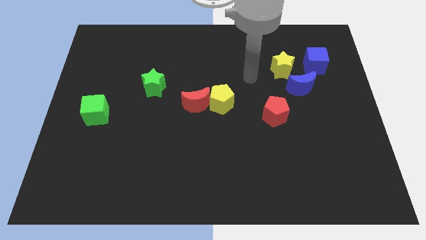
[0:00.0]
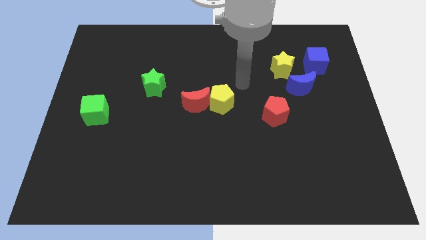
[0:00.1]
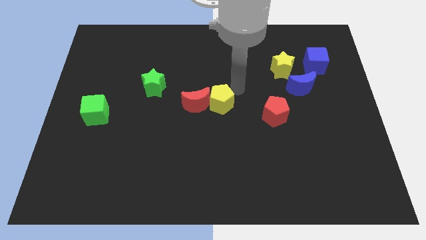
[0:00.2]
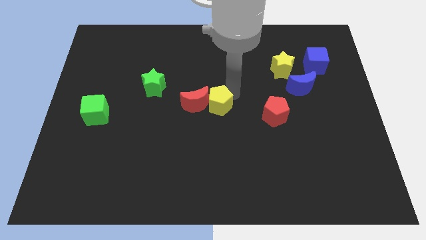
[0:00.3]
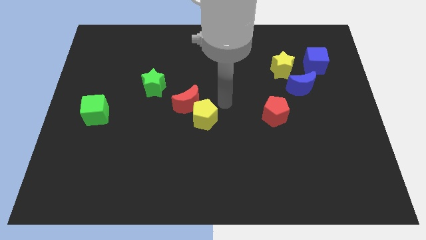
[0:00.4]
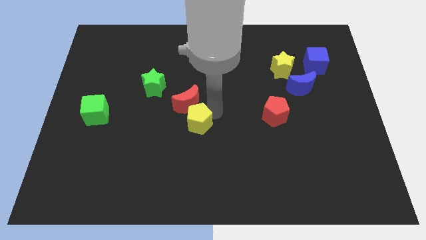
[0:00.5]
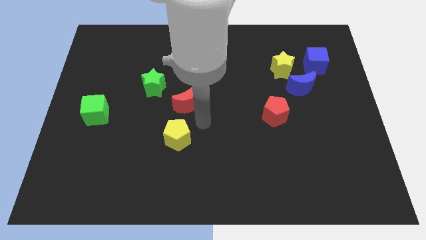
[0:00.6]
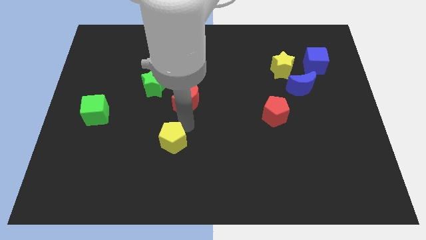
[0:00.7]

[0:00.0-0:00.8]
separate the red moon from the yellow pentagon

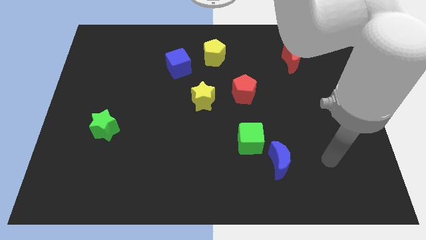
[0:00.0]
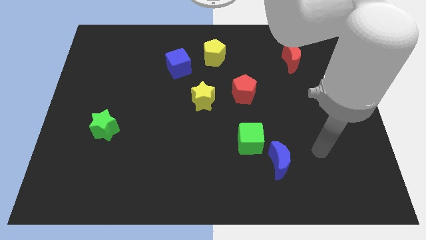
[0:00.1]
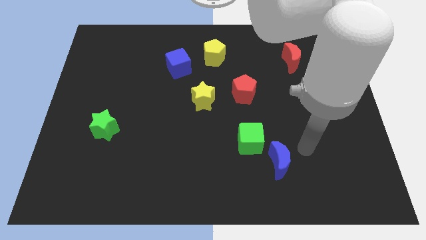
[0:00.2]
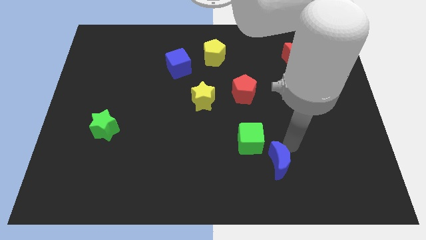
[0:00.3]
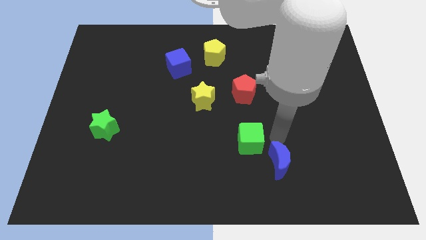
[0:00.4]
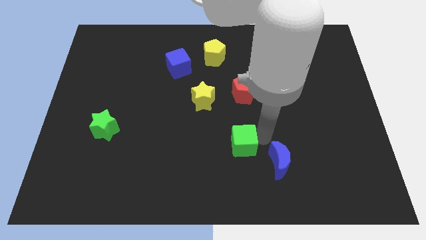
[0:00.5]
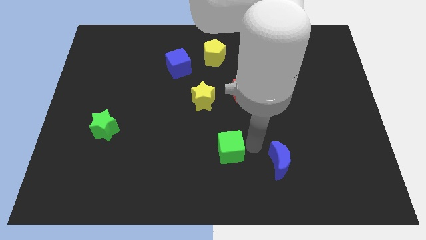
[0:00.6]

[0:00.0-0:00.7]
move the blue moon away from the green cube

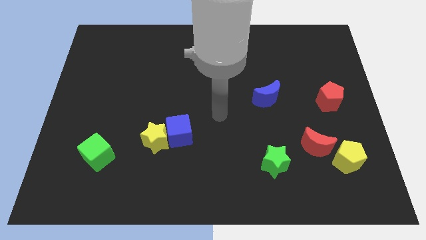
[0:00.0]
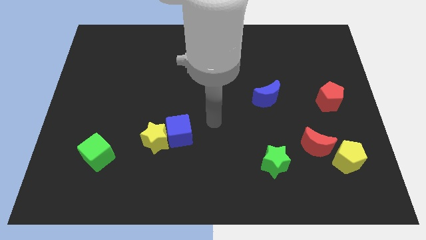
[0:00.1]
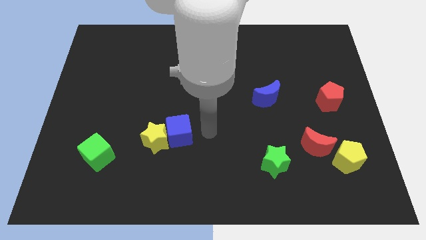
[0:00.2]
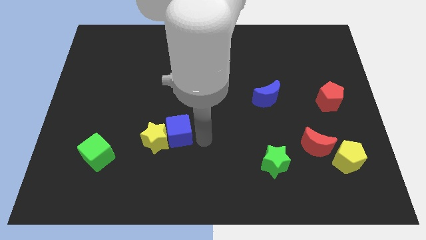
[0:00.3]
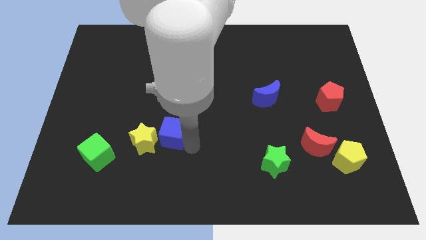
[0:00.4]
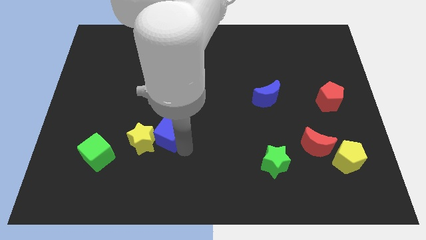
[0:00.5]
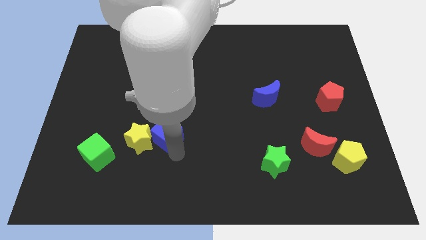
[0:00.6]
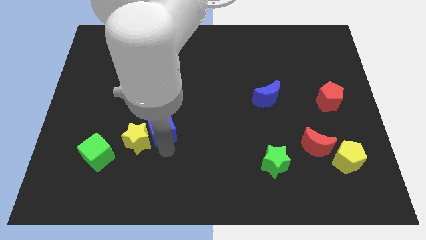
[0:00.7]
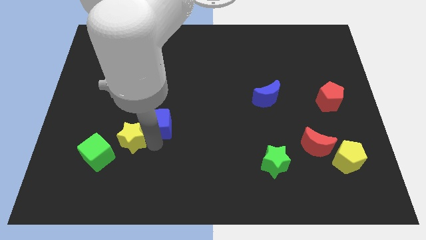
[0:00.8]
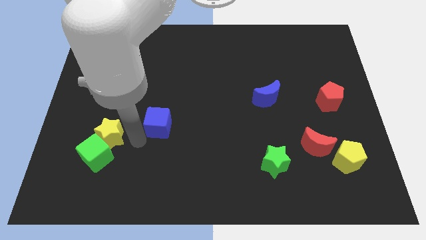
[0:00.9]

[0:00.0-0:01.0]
pull the blue cube apart from the yellow star

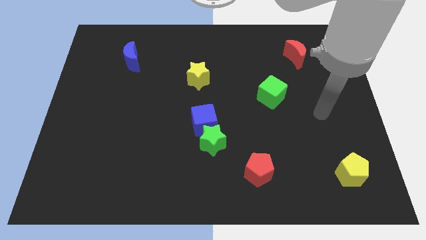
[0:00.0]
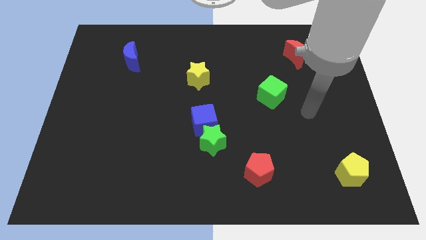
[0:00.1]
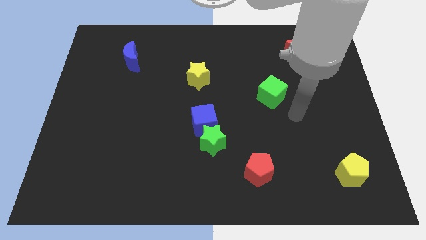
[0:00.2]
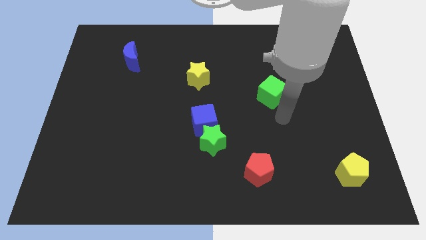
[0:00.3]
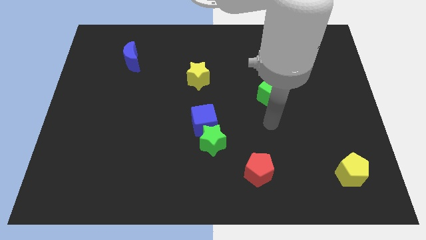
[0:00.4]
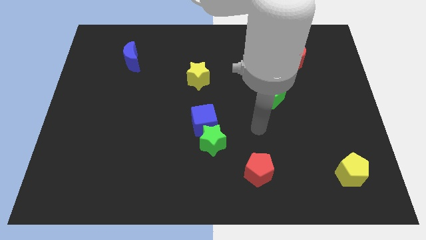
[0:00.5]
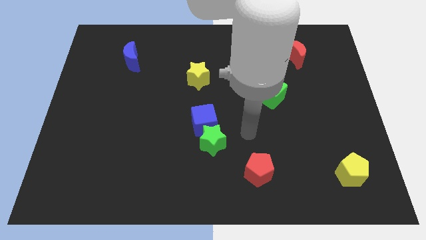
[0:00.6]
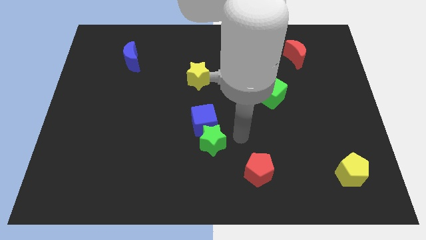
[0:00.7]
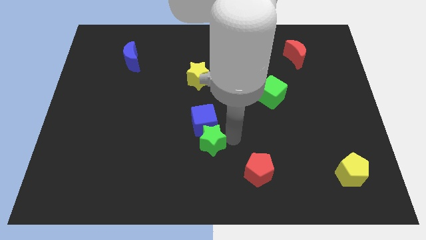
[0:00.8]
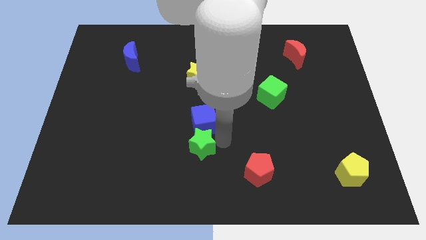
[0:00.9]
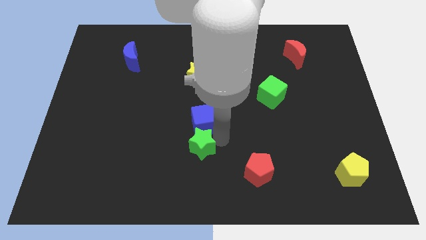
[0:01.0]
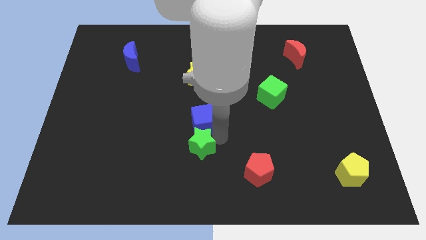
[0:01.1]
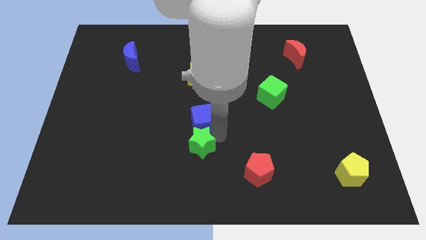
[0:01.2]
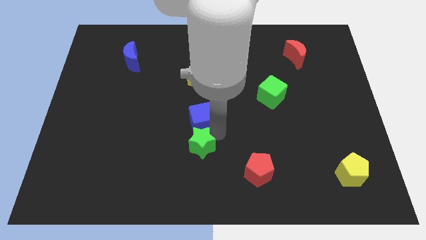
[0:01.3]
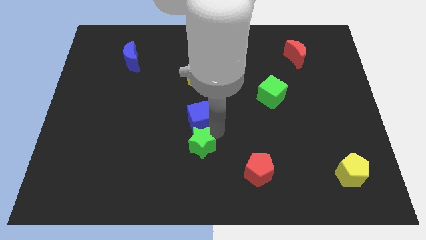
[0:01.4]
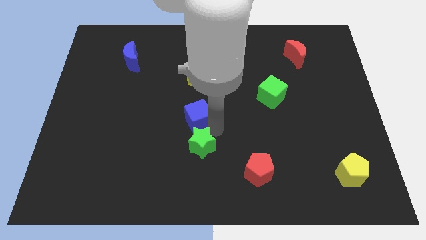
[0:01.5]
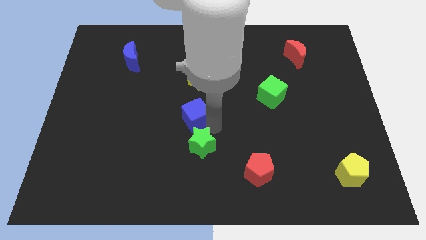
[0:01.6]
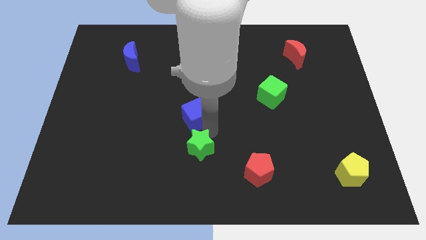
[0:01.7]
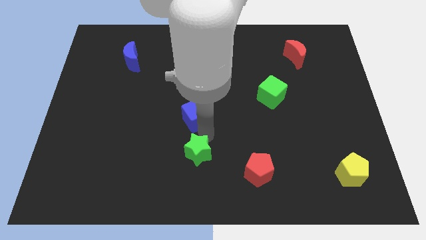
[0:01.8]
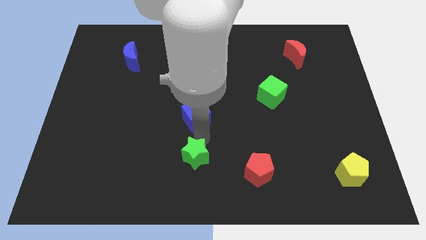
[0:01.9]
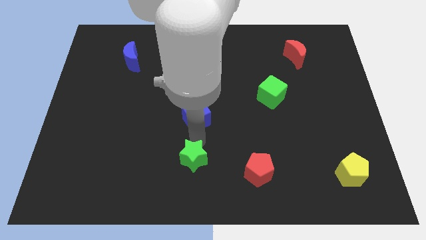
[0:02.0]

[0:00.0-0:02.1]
move the blue cube away from the green star

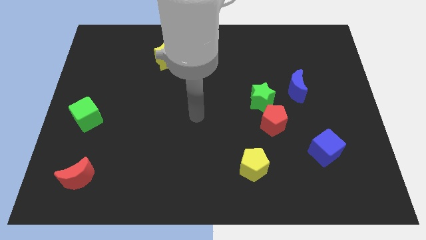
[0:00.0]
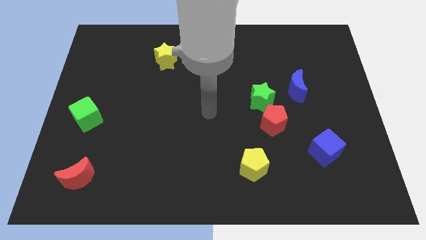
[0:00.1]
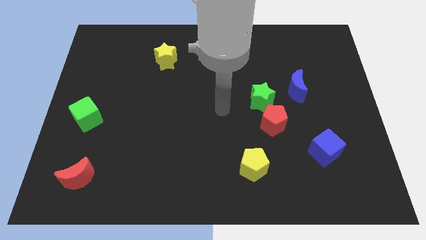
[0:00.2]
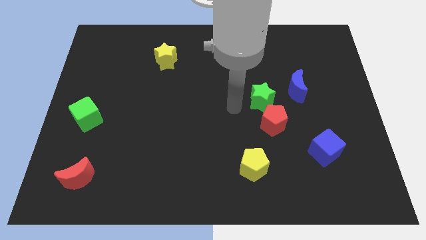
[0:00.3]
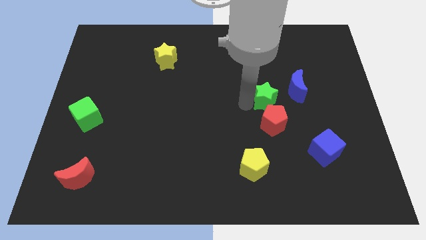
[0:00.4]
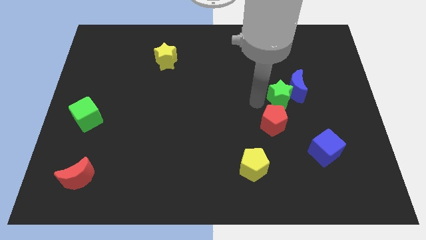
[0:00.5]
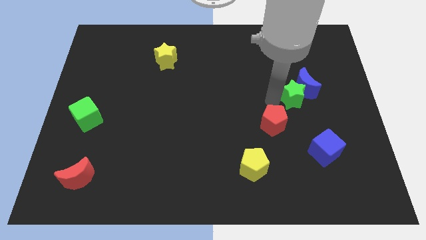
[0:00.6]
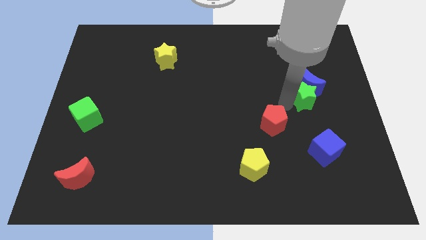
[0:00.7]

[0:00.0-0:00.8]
move the red pentagon away from the green star

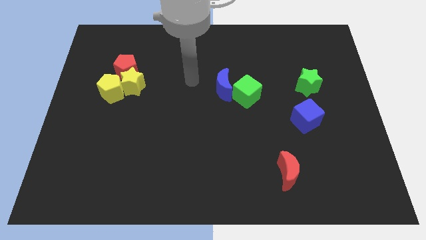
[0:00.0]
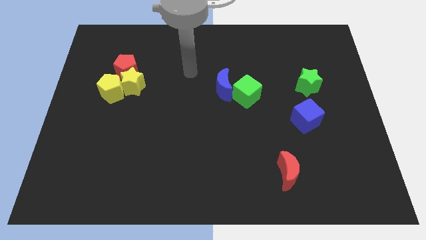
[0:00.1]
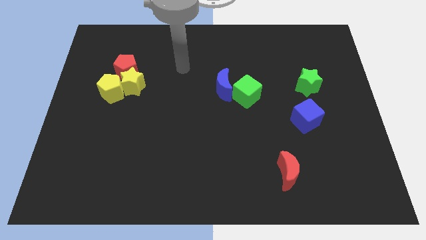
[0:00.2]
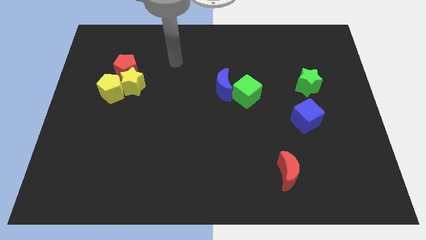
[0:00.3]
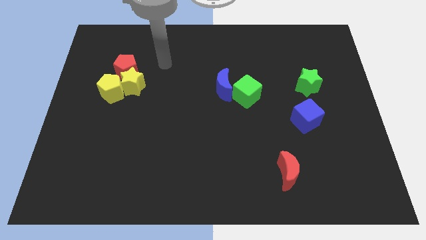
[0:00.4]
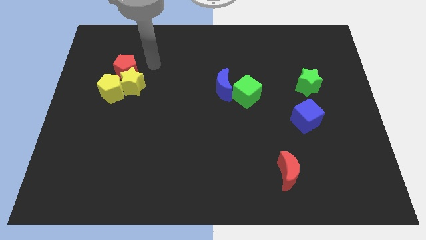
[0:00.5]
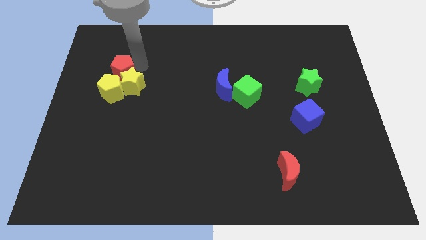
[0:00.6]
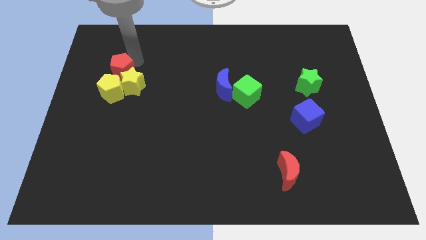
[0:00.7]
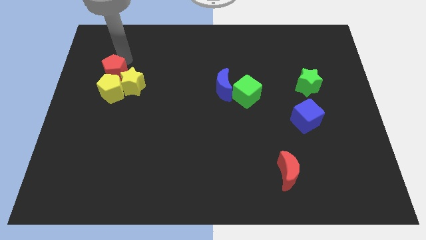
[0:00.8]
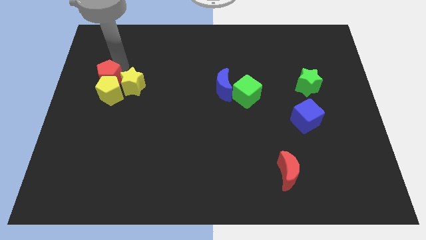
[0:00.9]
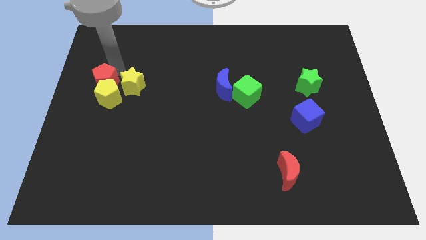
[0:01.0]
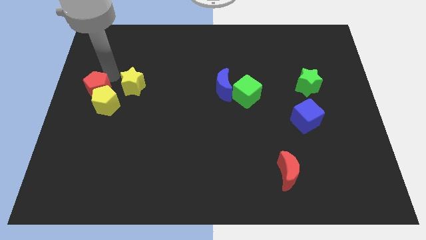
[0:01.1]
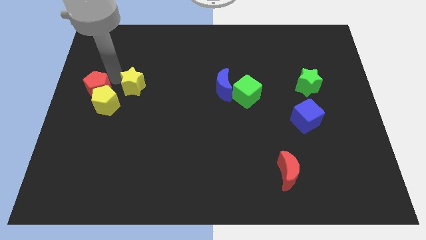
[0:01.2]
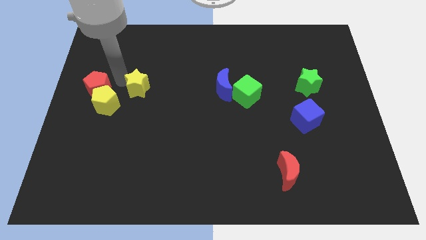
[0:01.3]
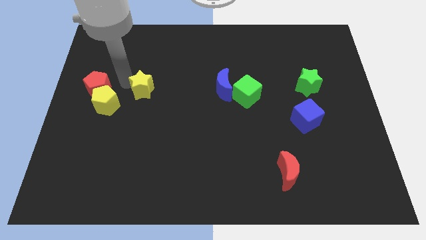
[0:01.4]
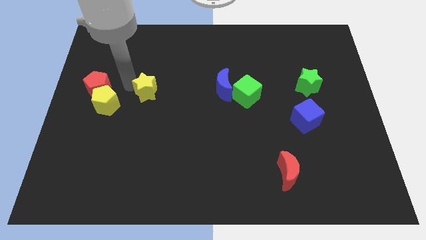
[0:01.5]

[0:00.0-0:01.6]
pull the yellow star apart from the red pentagon and yellow pentagon

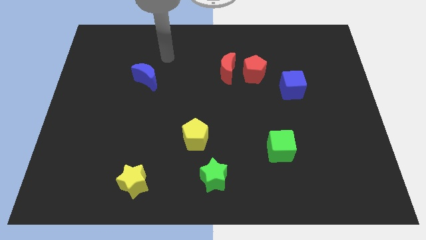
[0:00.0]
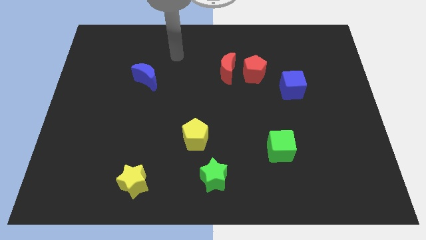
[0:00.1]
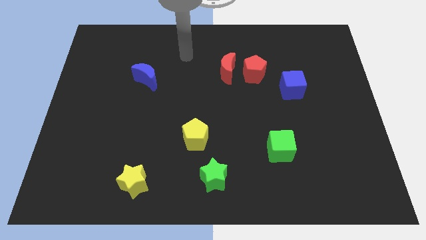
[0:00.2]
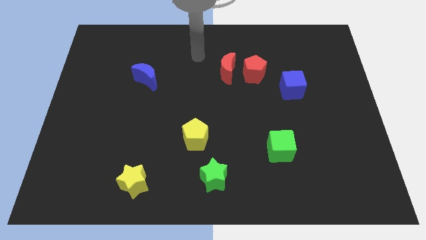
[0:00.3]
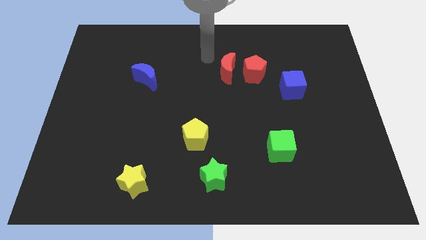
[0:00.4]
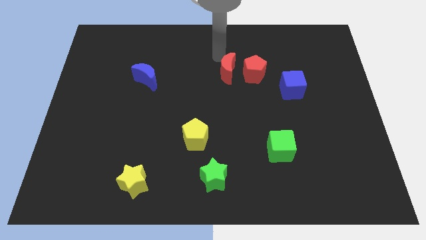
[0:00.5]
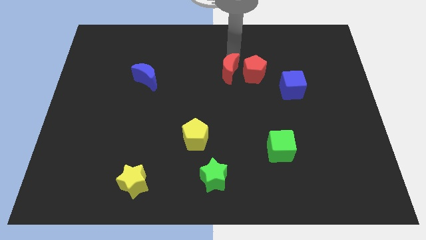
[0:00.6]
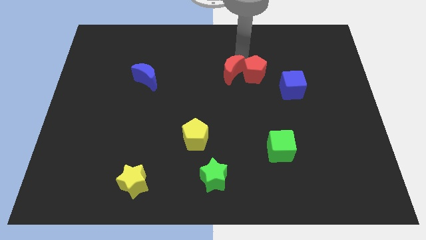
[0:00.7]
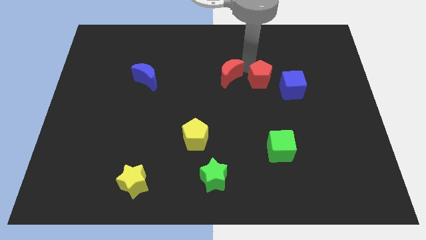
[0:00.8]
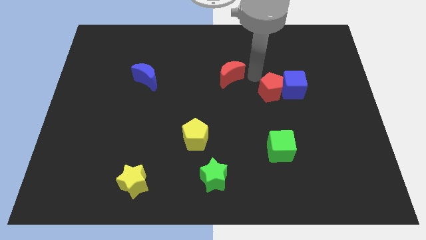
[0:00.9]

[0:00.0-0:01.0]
move the red moon away from the red pentagon

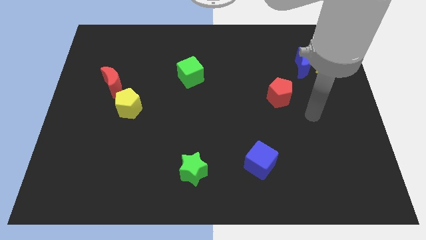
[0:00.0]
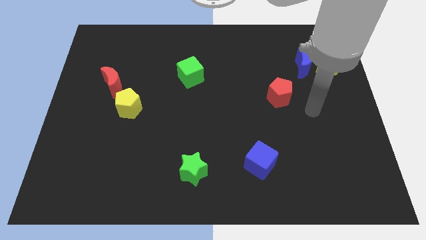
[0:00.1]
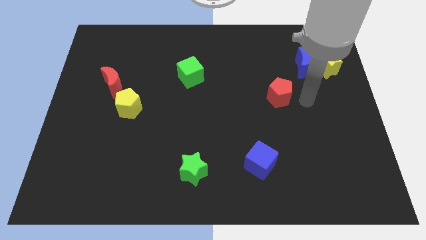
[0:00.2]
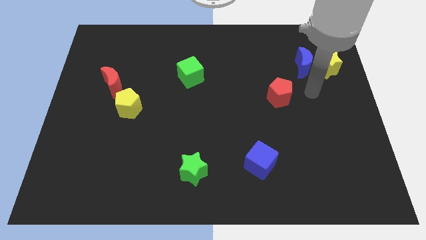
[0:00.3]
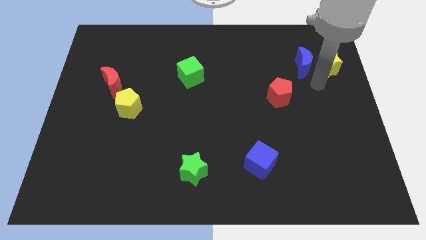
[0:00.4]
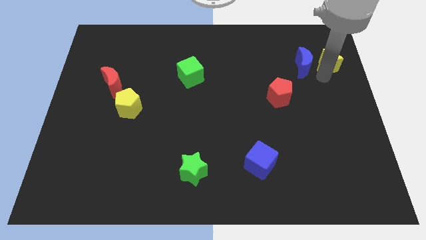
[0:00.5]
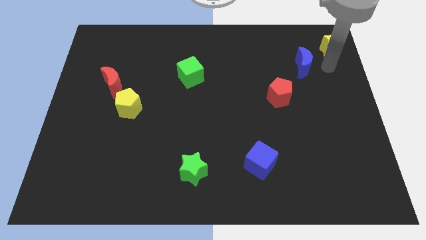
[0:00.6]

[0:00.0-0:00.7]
separate the blue moon from the yellow star

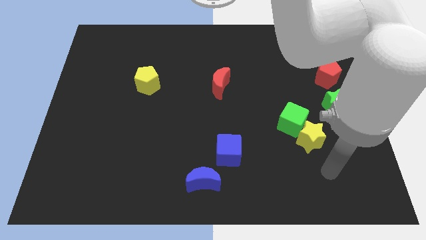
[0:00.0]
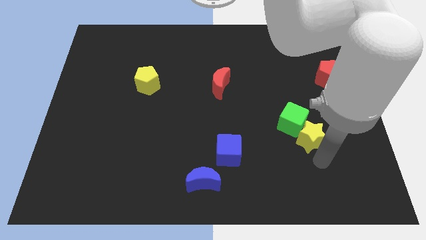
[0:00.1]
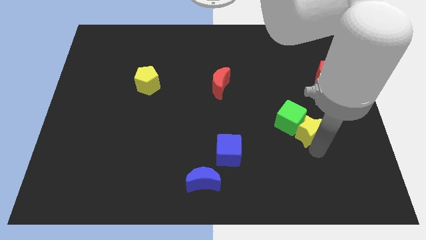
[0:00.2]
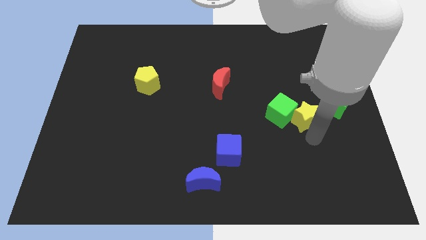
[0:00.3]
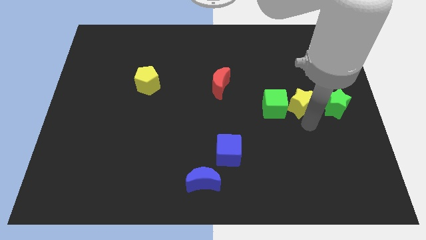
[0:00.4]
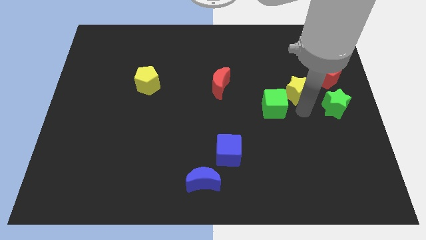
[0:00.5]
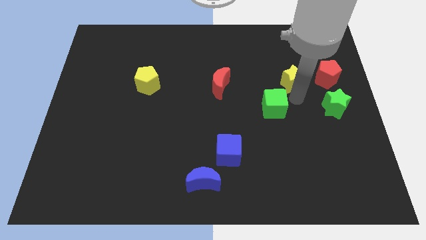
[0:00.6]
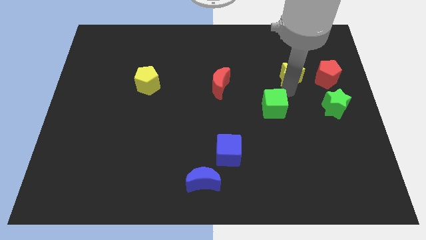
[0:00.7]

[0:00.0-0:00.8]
move the green cube away from the yellow star

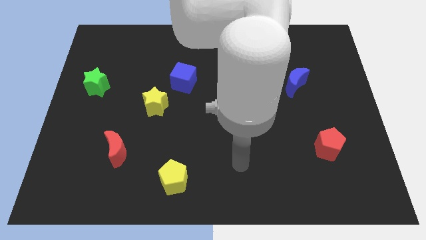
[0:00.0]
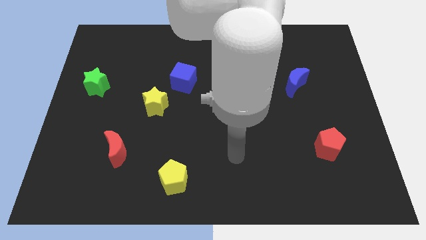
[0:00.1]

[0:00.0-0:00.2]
separate the blue cube from the yellow star
